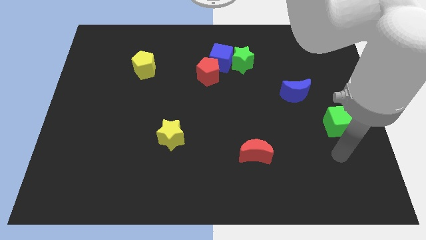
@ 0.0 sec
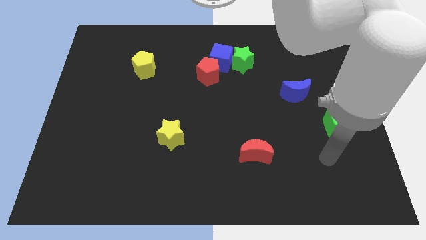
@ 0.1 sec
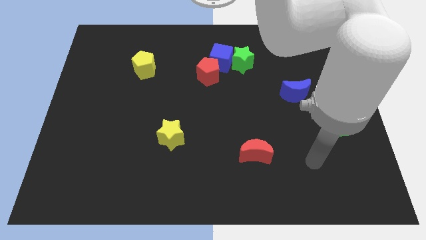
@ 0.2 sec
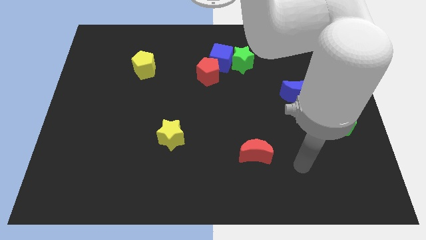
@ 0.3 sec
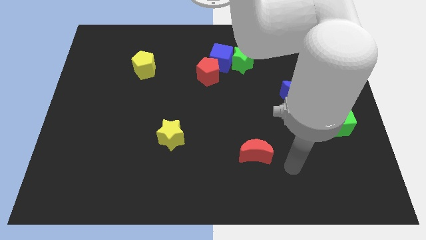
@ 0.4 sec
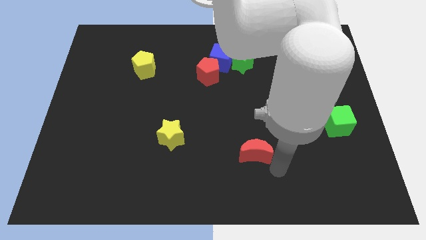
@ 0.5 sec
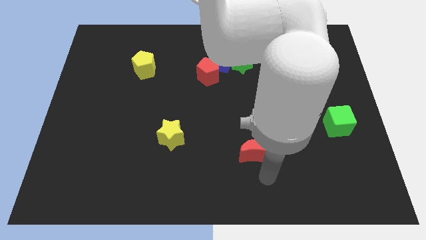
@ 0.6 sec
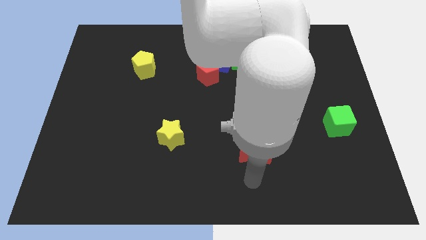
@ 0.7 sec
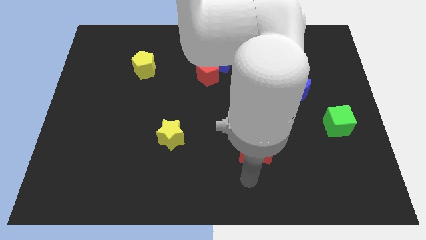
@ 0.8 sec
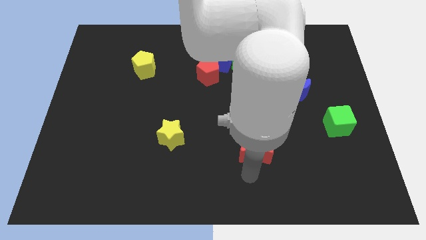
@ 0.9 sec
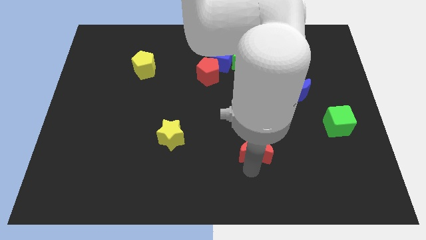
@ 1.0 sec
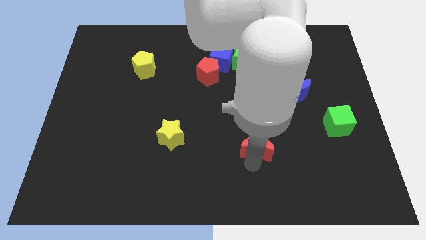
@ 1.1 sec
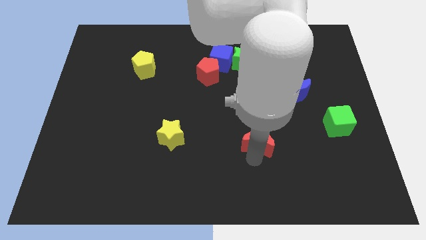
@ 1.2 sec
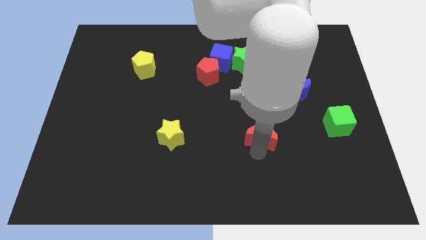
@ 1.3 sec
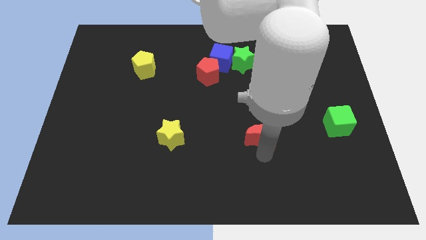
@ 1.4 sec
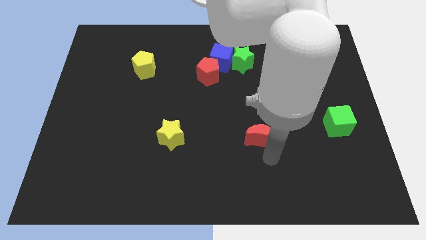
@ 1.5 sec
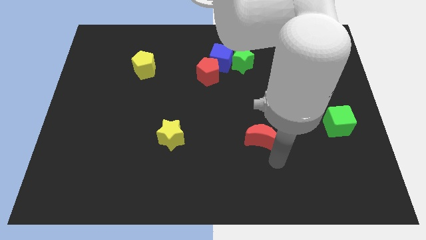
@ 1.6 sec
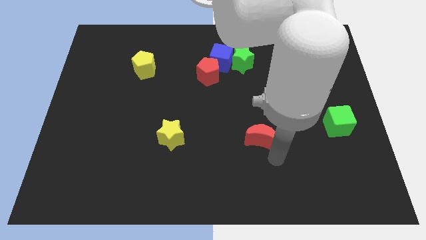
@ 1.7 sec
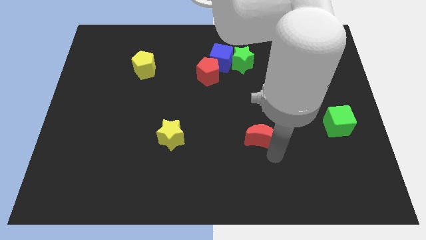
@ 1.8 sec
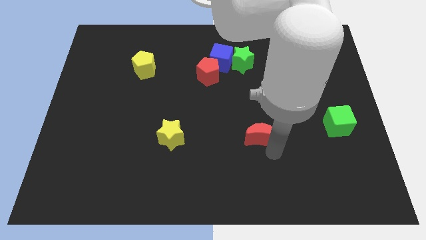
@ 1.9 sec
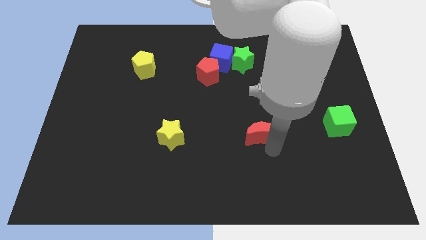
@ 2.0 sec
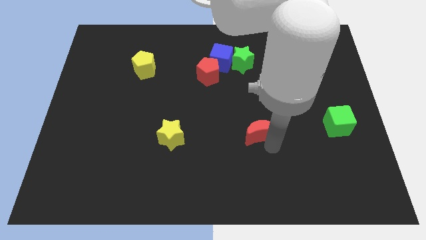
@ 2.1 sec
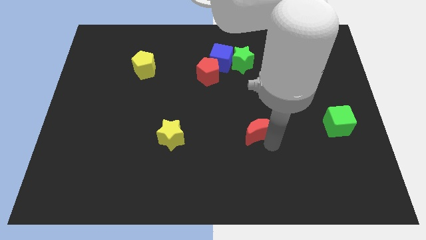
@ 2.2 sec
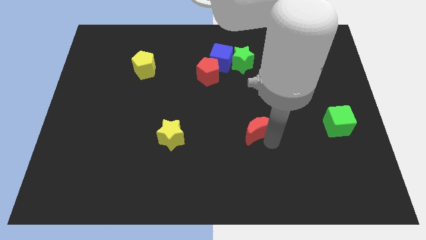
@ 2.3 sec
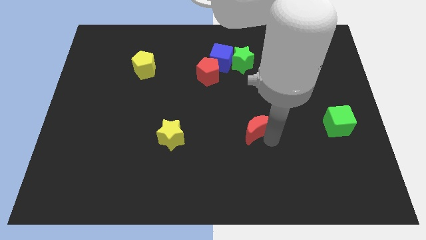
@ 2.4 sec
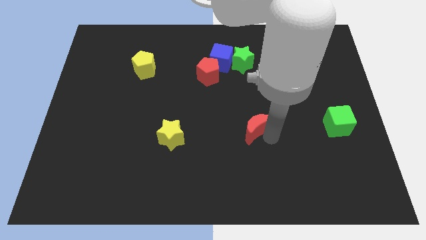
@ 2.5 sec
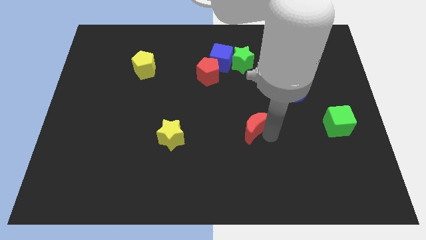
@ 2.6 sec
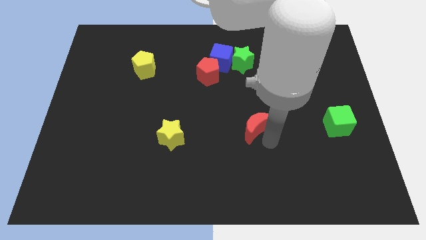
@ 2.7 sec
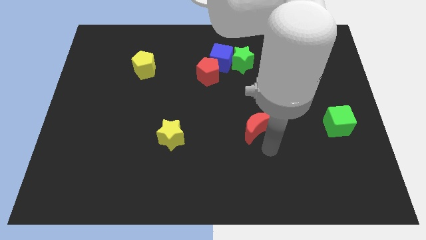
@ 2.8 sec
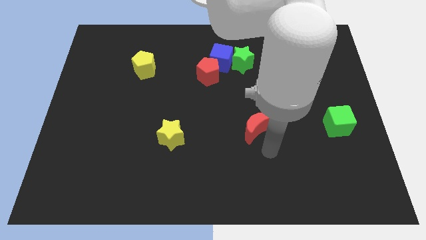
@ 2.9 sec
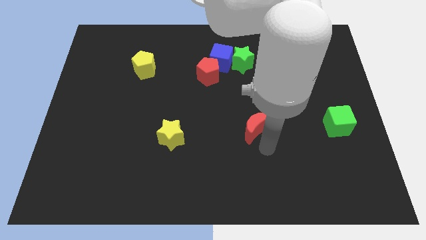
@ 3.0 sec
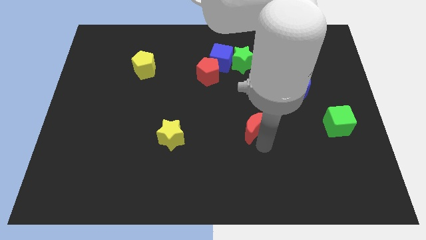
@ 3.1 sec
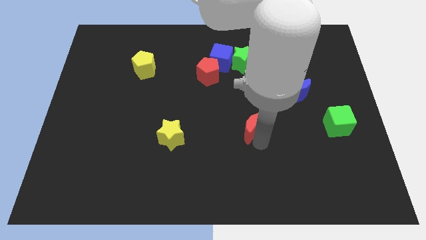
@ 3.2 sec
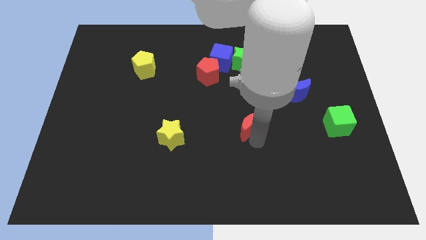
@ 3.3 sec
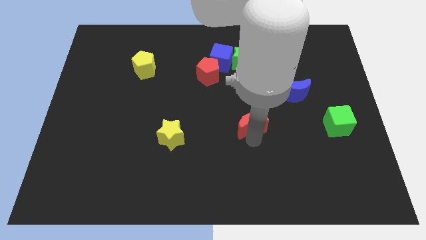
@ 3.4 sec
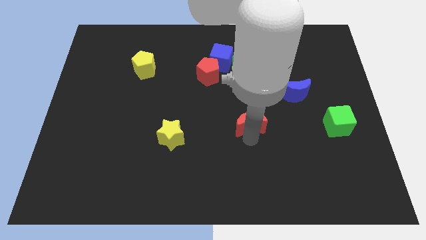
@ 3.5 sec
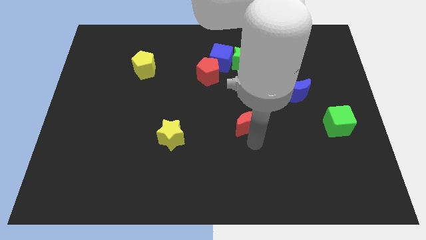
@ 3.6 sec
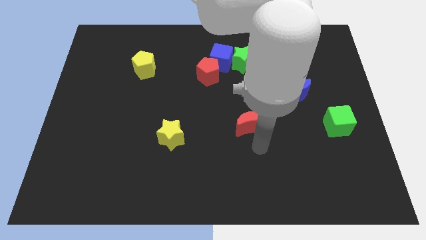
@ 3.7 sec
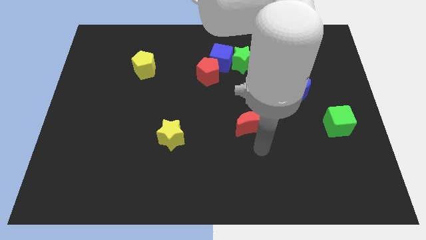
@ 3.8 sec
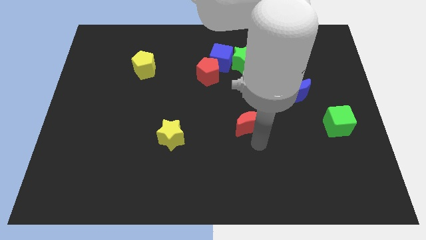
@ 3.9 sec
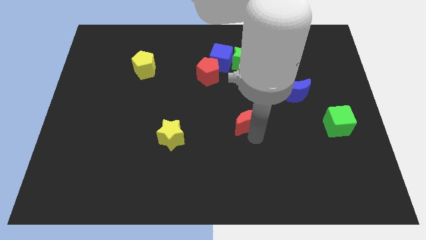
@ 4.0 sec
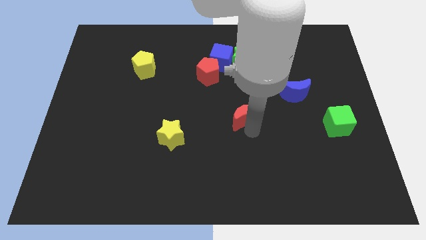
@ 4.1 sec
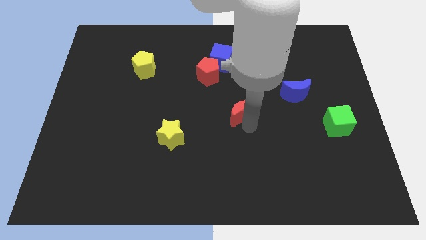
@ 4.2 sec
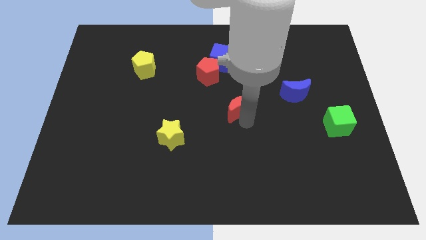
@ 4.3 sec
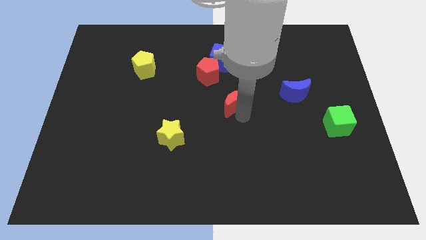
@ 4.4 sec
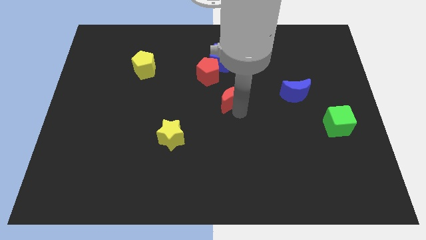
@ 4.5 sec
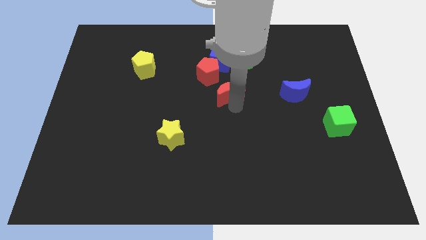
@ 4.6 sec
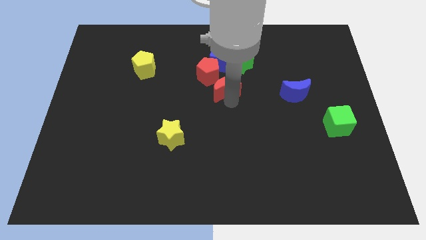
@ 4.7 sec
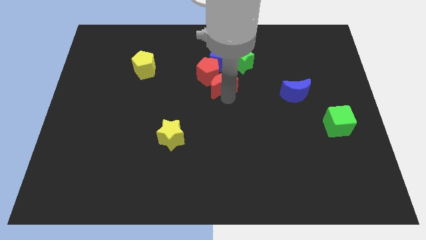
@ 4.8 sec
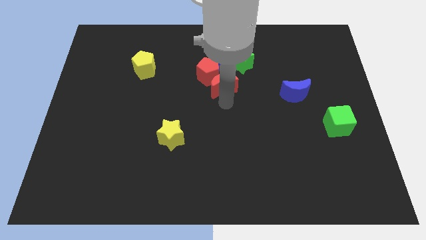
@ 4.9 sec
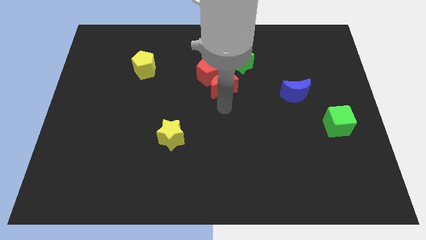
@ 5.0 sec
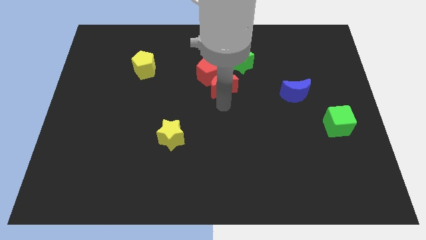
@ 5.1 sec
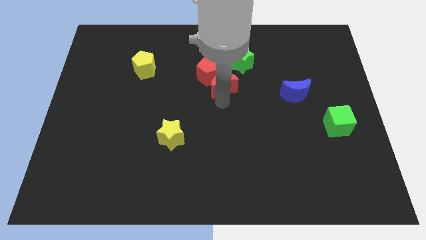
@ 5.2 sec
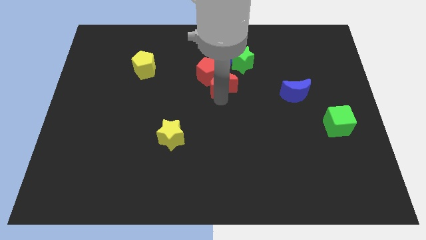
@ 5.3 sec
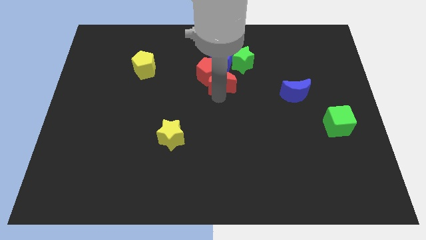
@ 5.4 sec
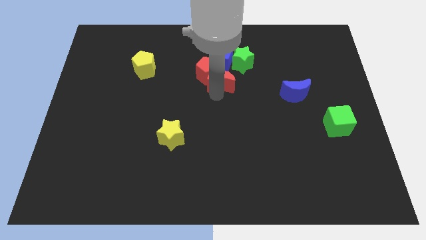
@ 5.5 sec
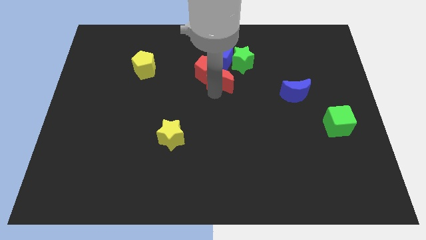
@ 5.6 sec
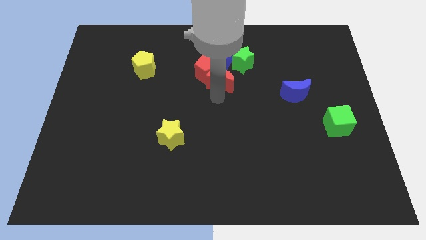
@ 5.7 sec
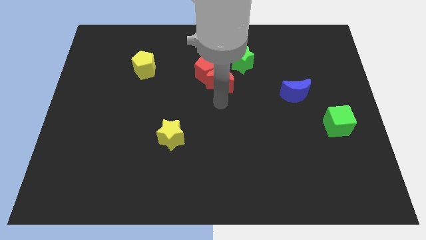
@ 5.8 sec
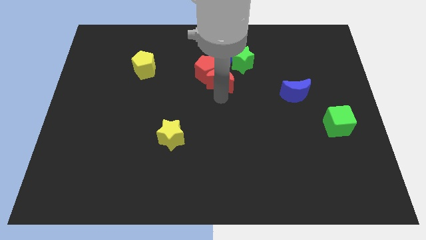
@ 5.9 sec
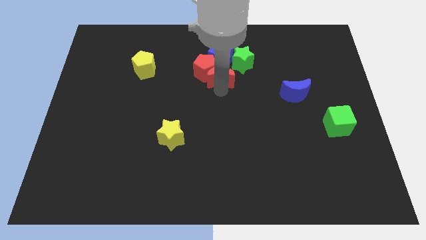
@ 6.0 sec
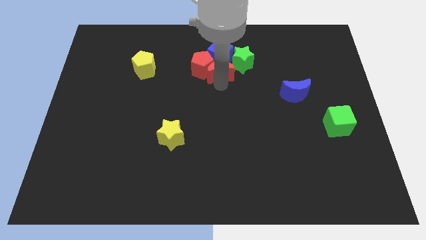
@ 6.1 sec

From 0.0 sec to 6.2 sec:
put the red moon to the blue cube

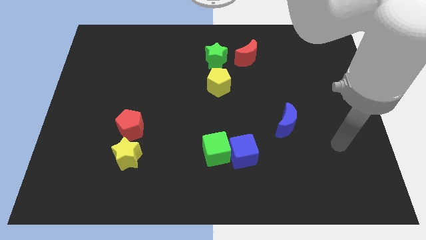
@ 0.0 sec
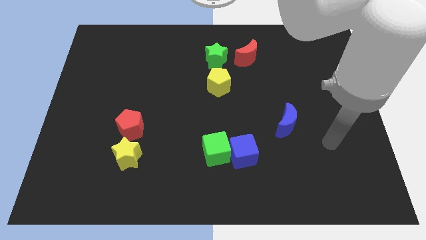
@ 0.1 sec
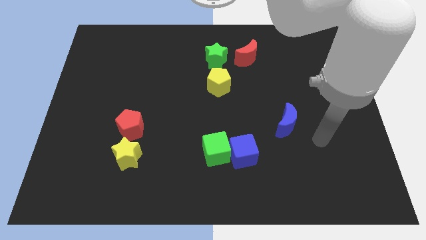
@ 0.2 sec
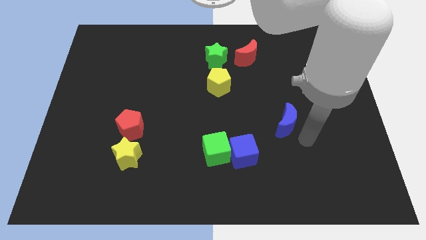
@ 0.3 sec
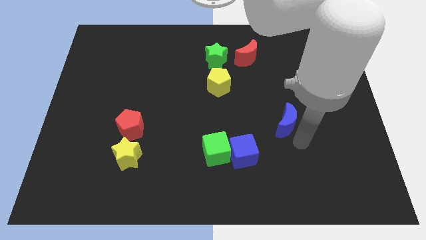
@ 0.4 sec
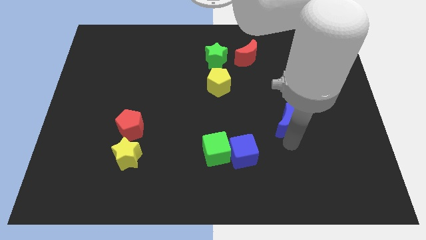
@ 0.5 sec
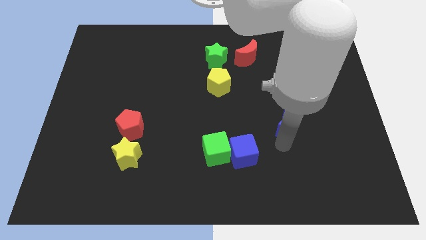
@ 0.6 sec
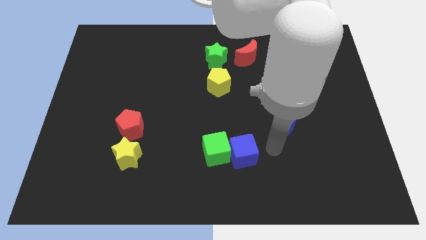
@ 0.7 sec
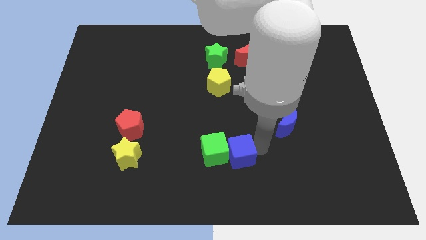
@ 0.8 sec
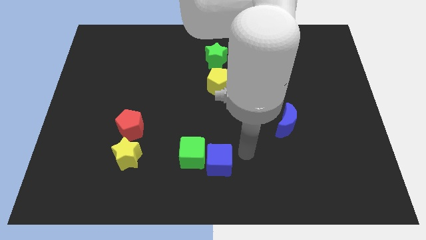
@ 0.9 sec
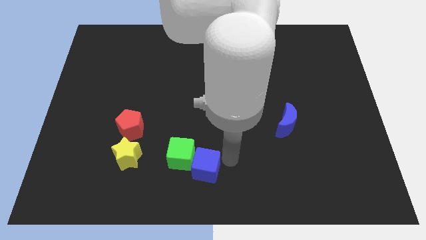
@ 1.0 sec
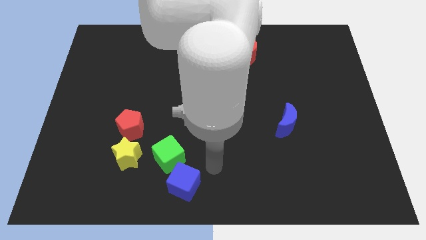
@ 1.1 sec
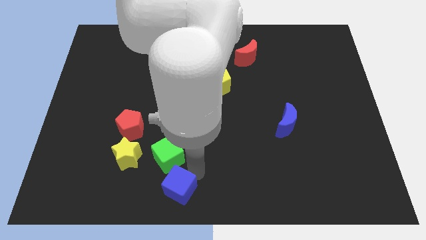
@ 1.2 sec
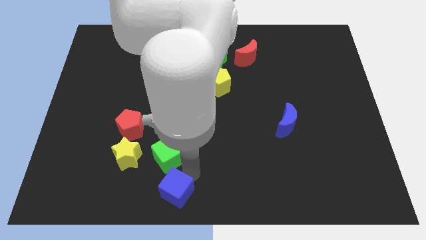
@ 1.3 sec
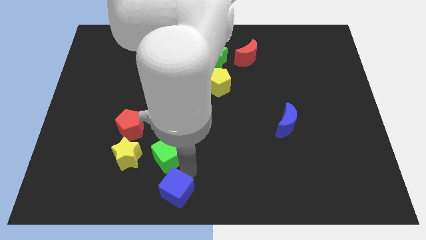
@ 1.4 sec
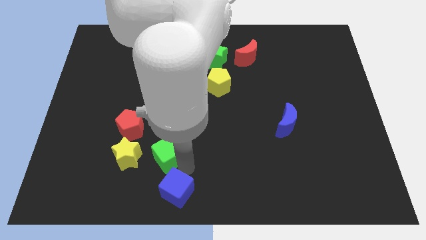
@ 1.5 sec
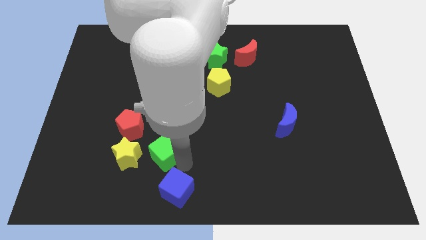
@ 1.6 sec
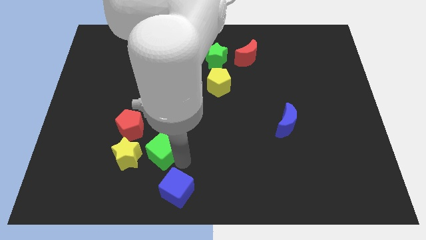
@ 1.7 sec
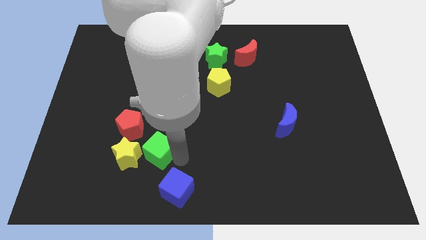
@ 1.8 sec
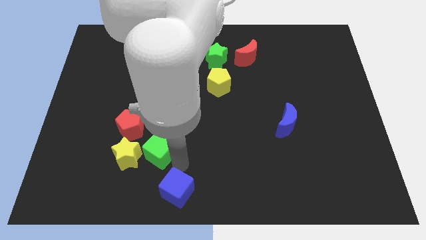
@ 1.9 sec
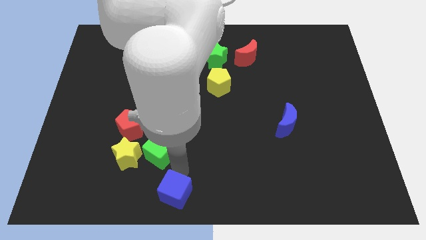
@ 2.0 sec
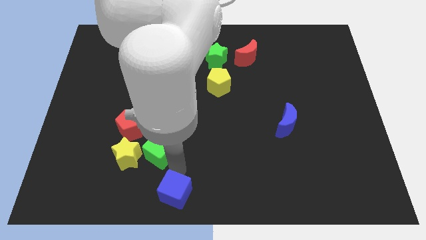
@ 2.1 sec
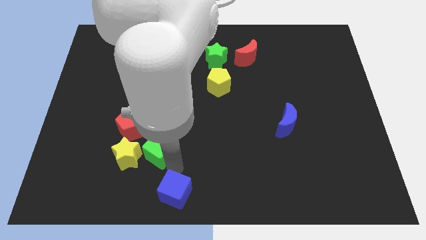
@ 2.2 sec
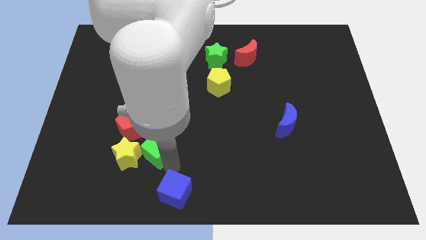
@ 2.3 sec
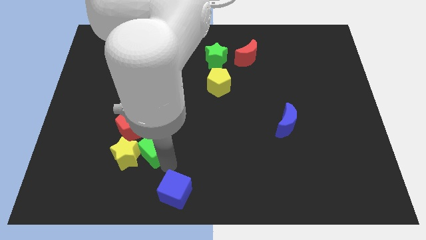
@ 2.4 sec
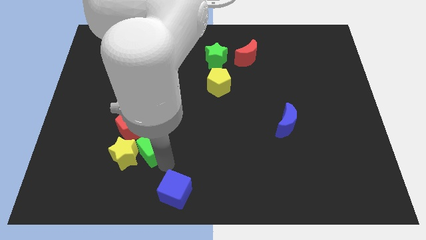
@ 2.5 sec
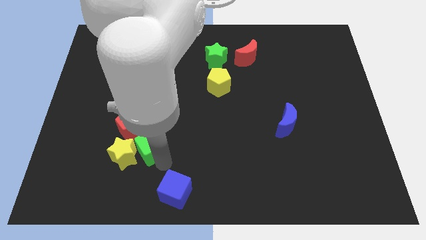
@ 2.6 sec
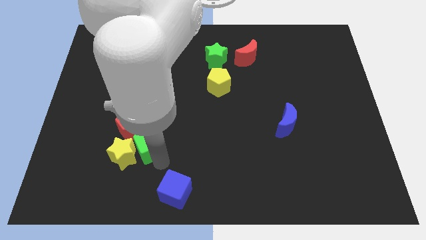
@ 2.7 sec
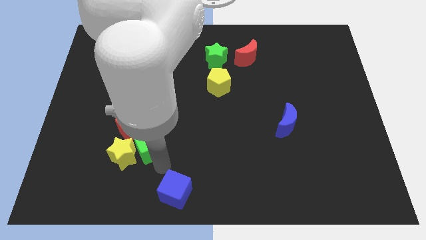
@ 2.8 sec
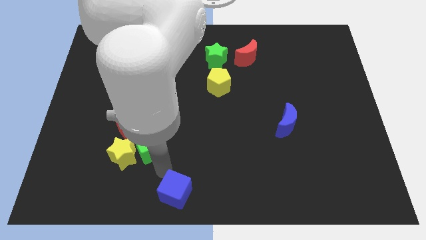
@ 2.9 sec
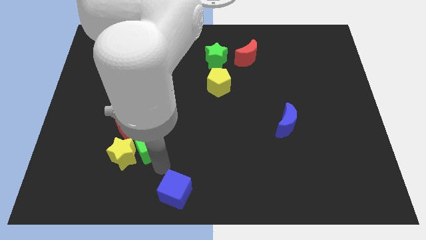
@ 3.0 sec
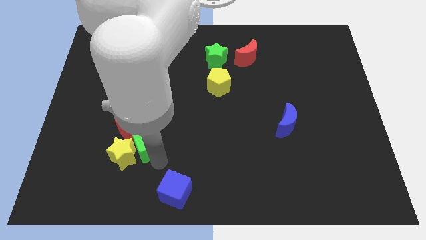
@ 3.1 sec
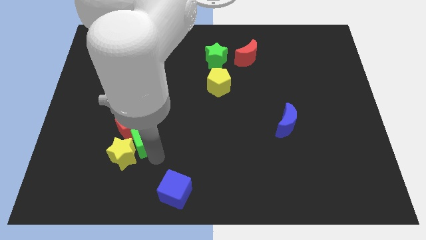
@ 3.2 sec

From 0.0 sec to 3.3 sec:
put the green cube towards the red pentagon
